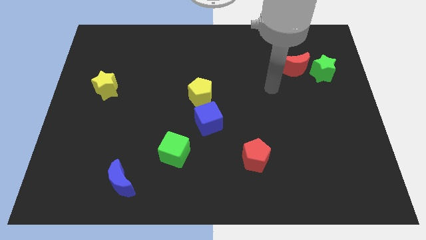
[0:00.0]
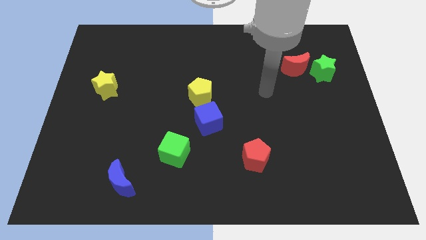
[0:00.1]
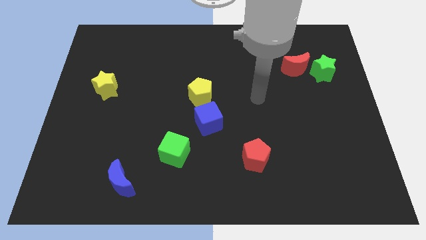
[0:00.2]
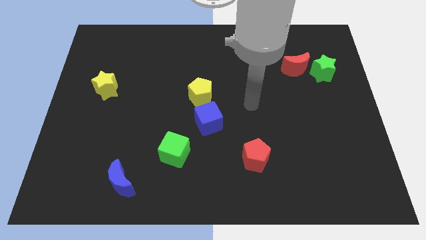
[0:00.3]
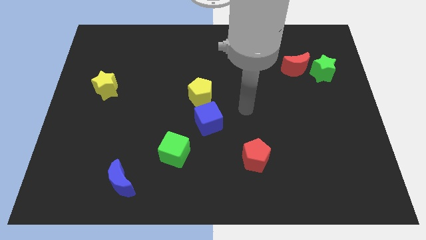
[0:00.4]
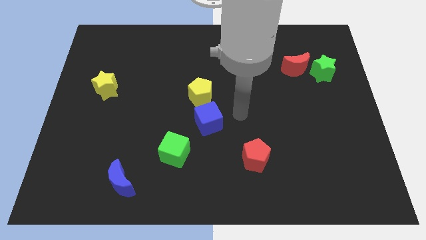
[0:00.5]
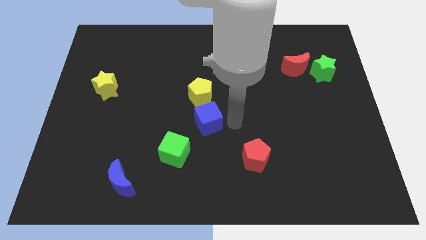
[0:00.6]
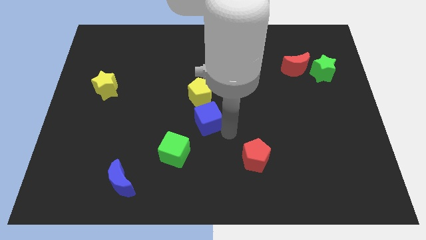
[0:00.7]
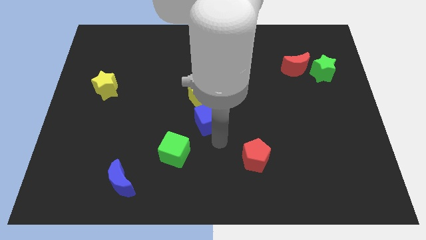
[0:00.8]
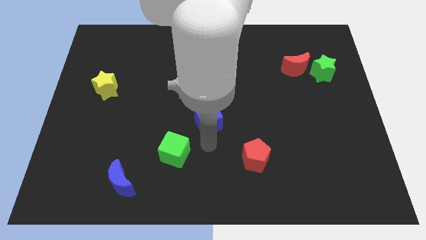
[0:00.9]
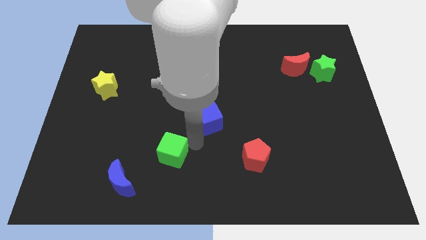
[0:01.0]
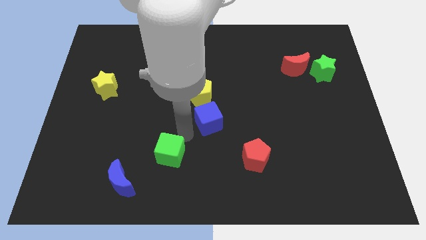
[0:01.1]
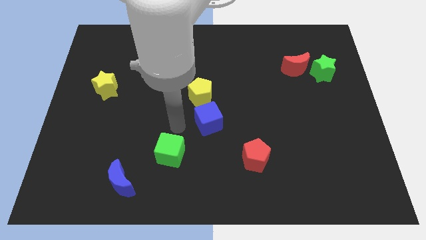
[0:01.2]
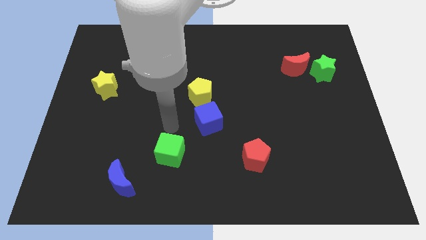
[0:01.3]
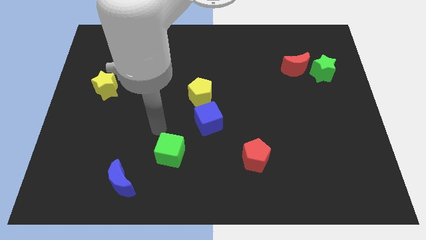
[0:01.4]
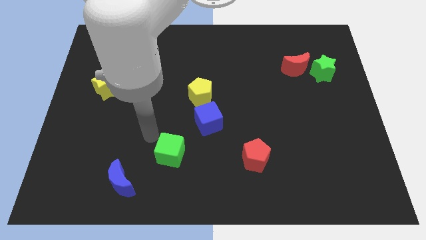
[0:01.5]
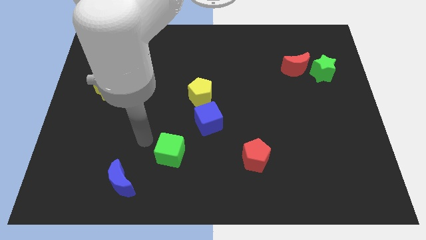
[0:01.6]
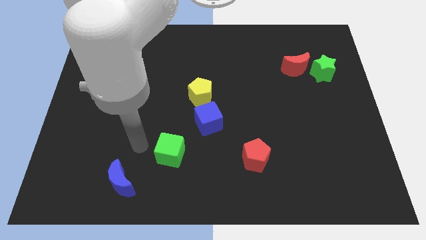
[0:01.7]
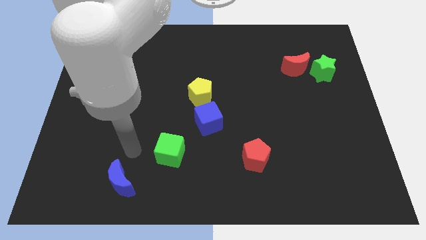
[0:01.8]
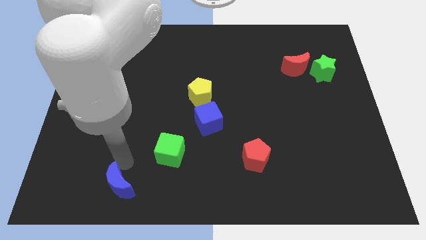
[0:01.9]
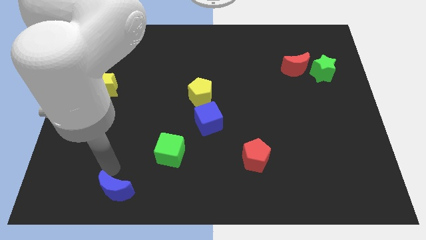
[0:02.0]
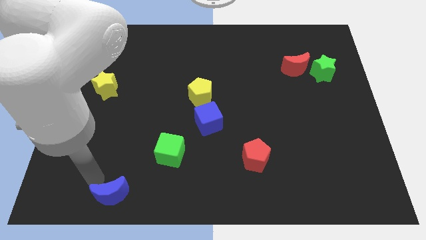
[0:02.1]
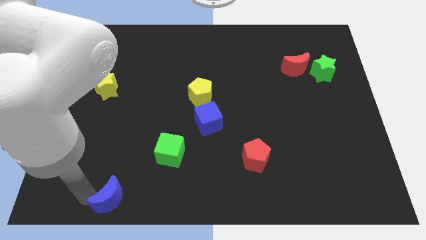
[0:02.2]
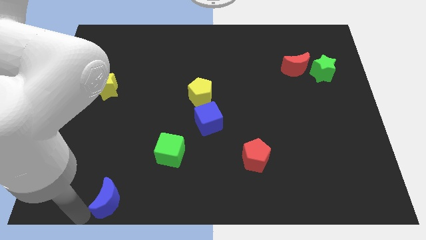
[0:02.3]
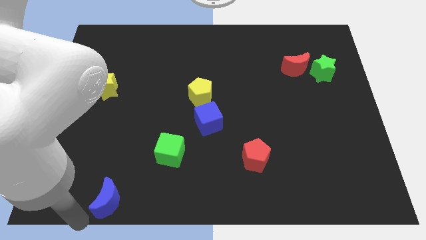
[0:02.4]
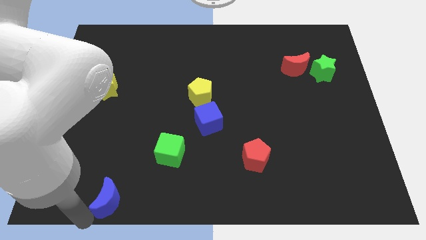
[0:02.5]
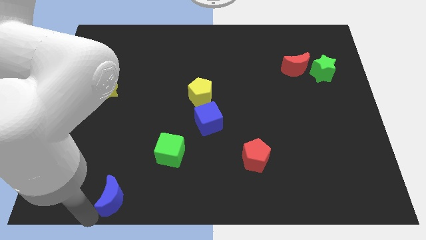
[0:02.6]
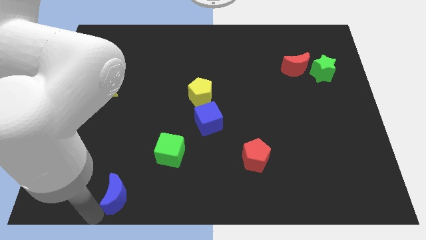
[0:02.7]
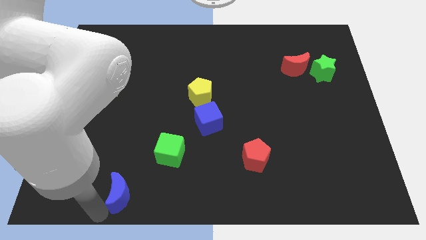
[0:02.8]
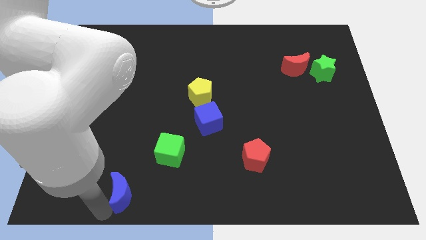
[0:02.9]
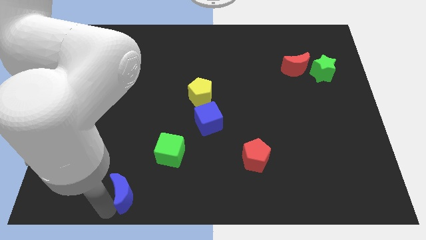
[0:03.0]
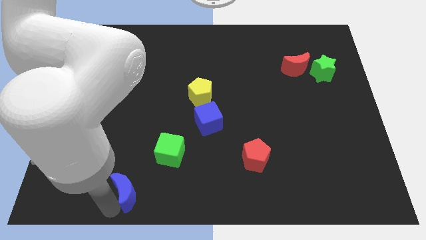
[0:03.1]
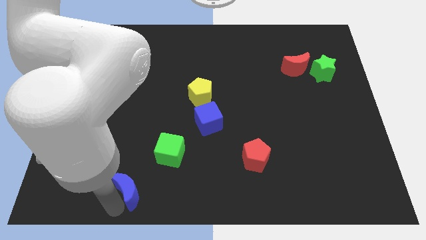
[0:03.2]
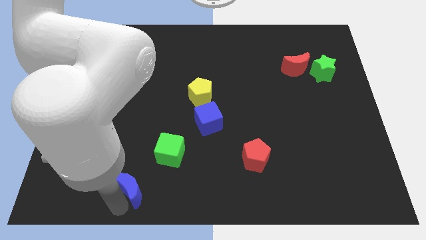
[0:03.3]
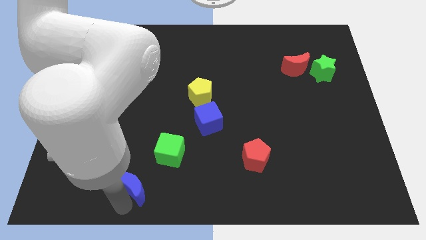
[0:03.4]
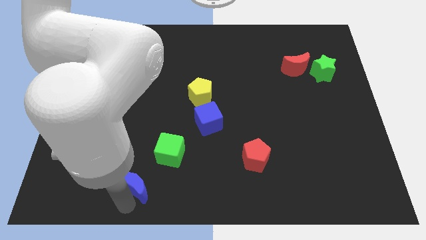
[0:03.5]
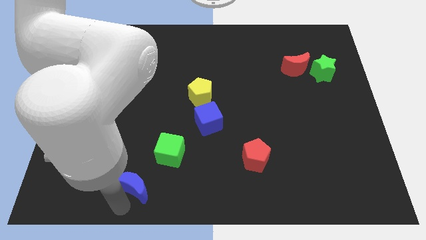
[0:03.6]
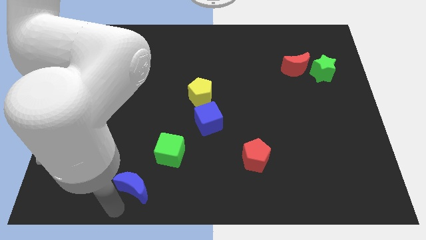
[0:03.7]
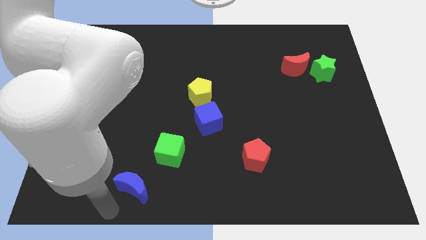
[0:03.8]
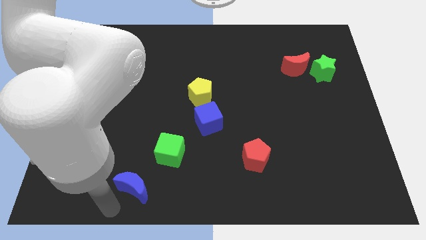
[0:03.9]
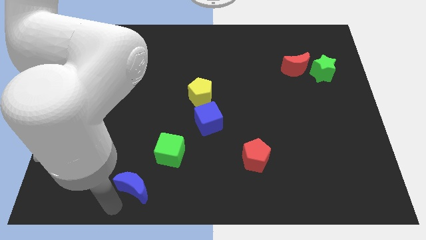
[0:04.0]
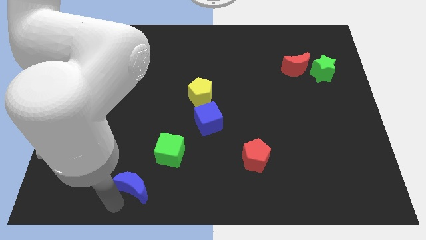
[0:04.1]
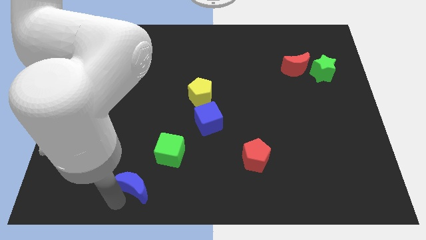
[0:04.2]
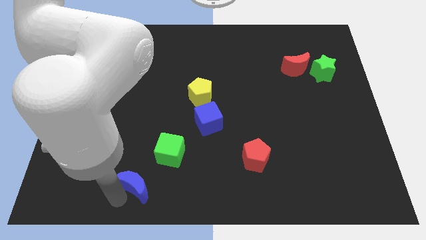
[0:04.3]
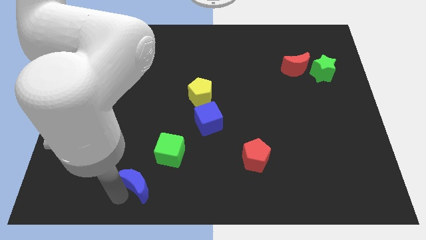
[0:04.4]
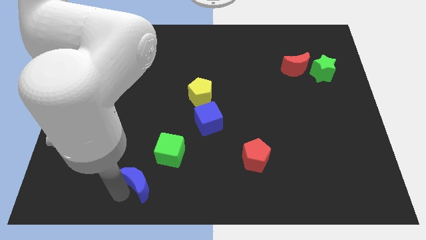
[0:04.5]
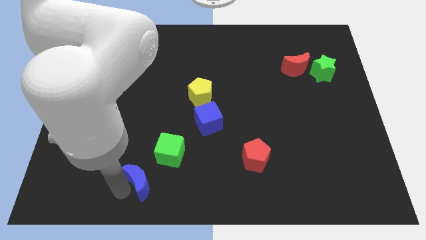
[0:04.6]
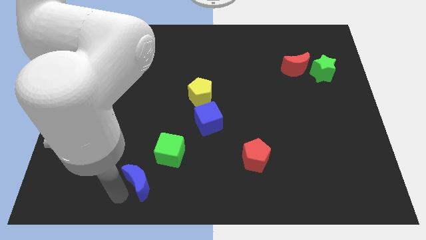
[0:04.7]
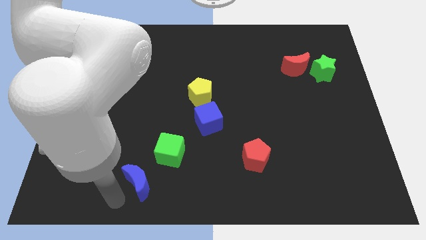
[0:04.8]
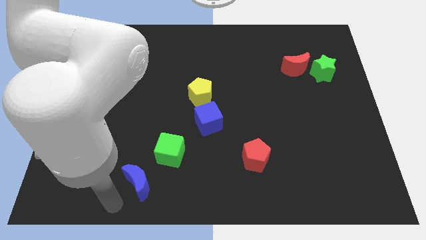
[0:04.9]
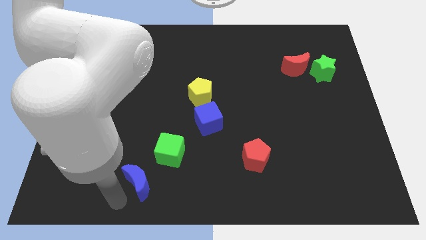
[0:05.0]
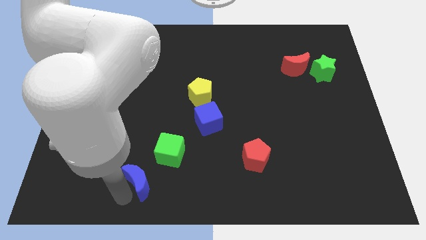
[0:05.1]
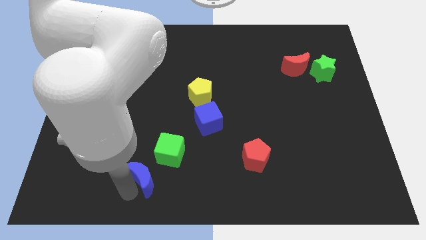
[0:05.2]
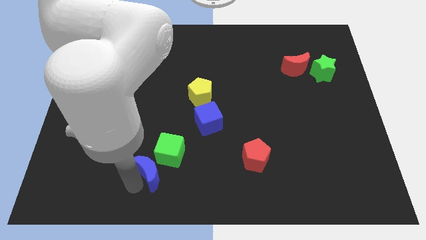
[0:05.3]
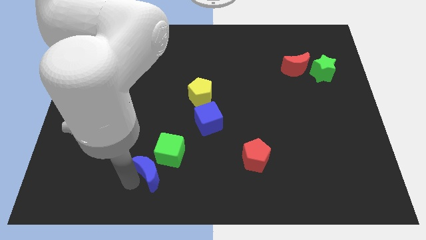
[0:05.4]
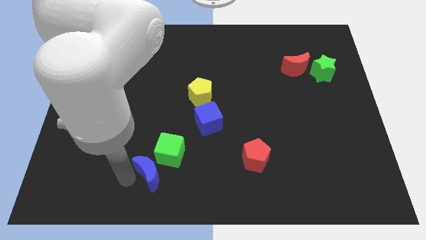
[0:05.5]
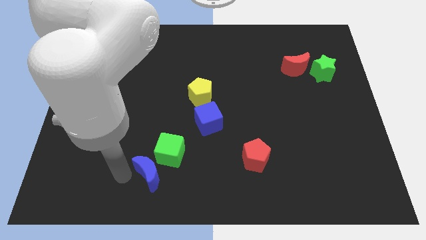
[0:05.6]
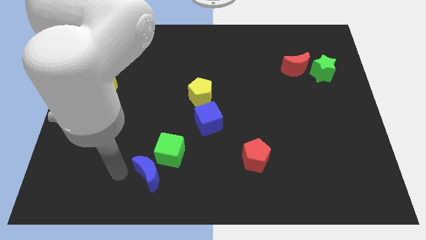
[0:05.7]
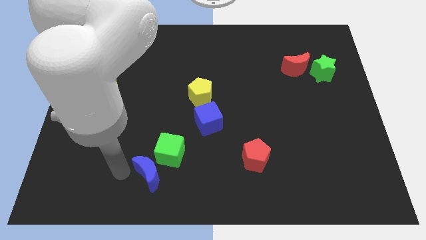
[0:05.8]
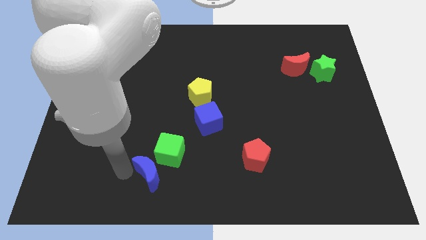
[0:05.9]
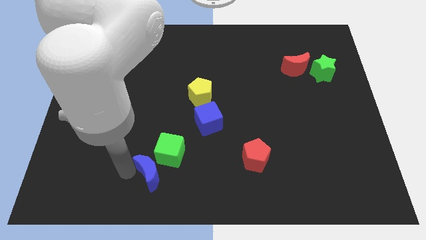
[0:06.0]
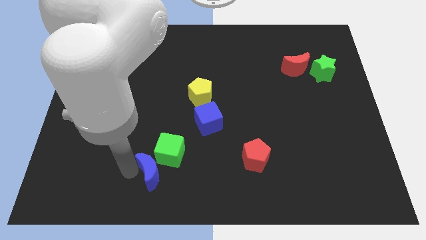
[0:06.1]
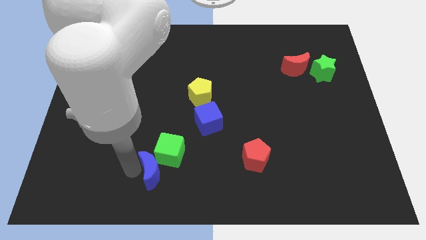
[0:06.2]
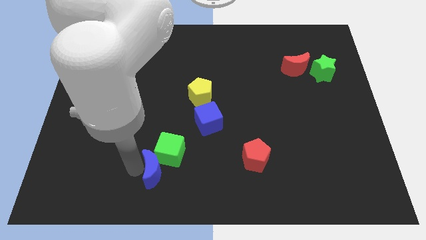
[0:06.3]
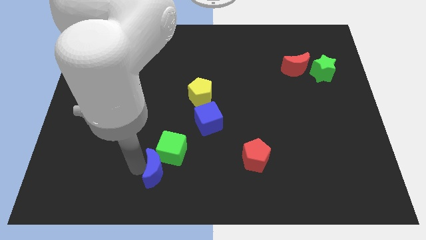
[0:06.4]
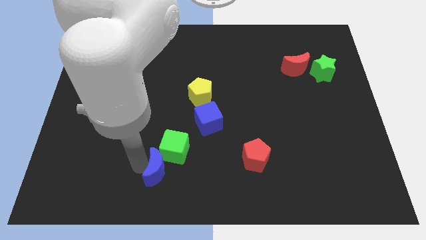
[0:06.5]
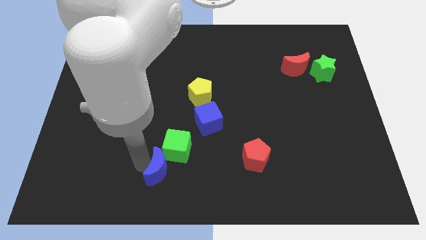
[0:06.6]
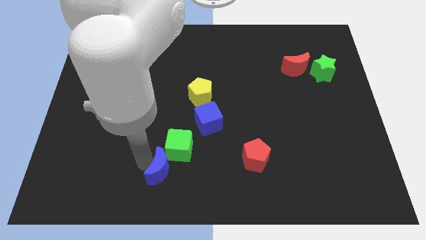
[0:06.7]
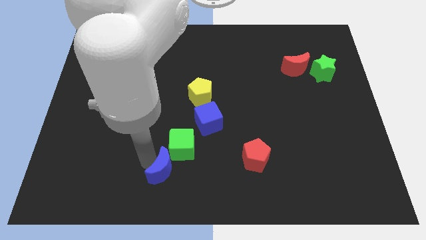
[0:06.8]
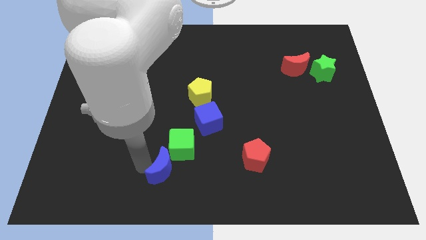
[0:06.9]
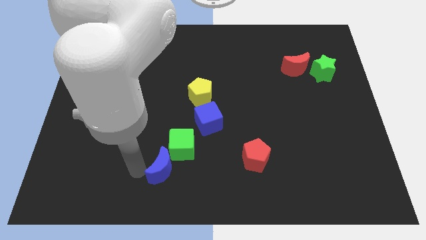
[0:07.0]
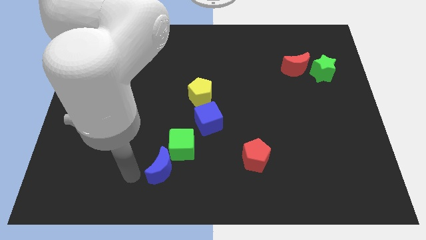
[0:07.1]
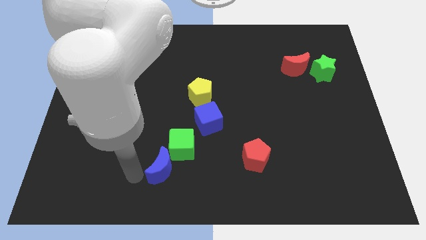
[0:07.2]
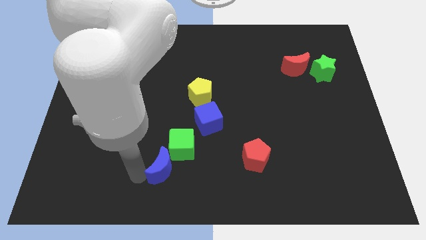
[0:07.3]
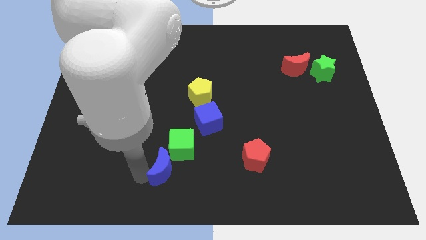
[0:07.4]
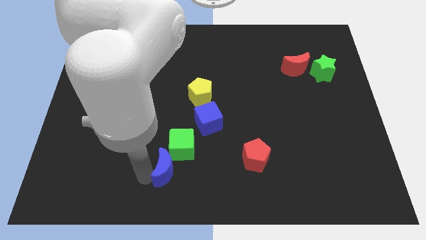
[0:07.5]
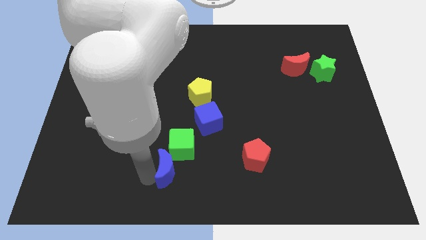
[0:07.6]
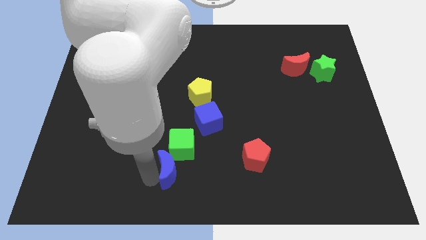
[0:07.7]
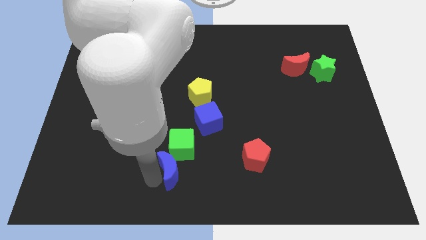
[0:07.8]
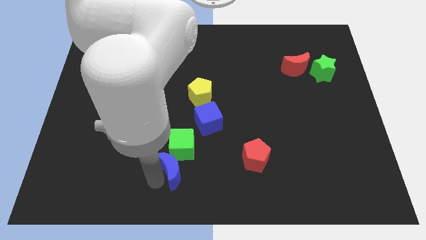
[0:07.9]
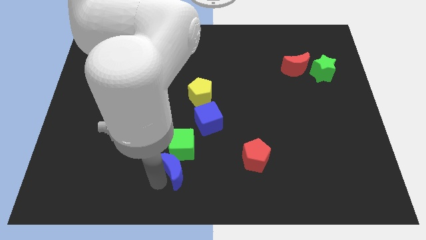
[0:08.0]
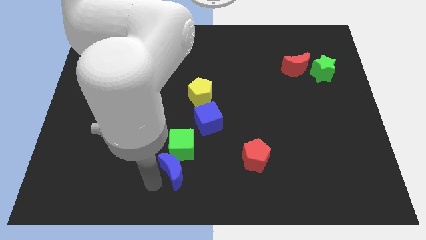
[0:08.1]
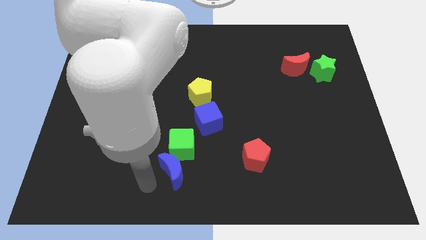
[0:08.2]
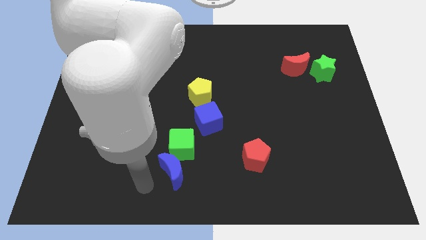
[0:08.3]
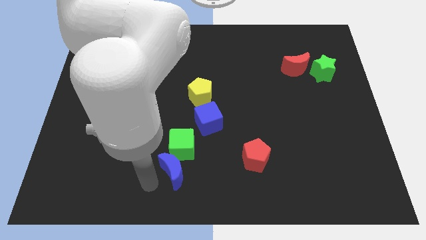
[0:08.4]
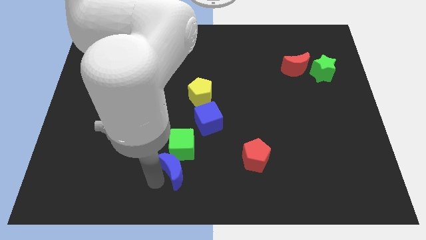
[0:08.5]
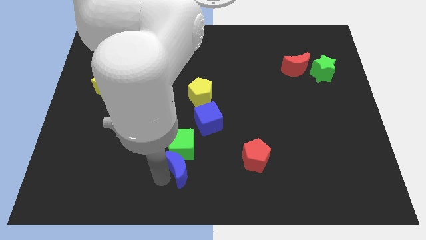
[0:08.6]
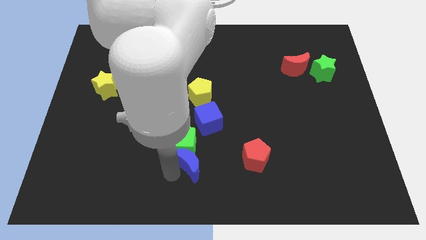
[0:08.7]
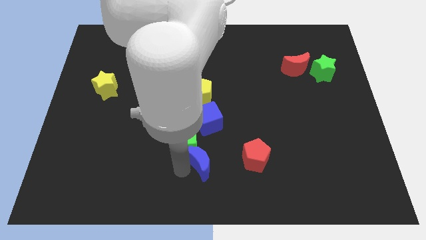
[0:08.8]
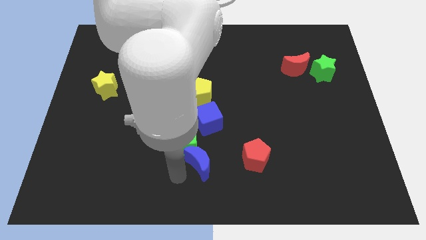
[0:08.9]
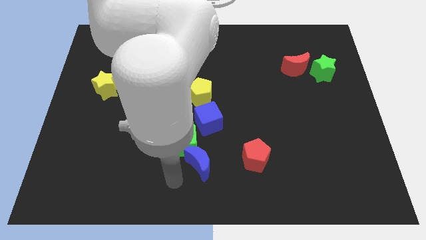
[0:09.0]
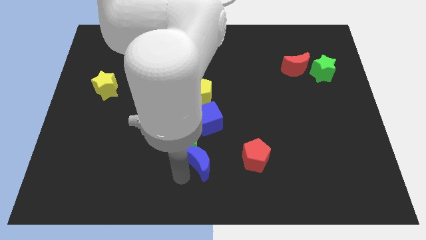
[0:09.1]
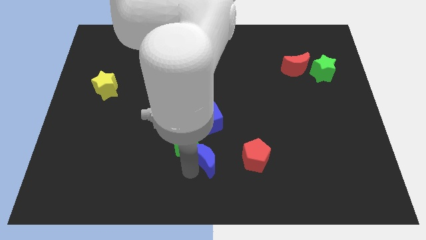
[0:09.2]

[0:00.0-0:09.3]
push the blue moon right of the green cube
